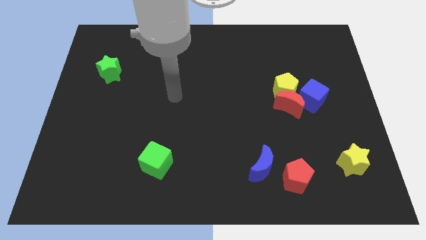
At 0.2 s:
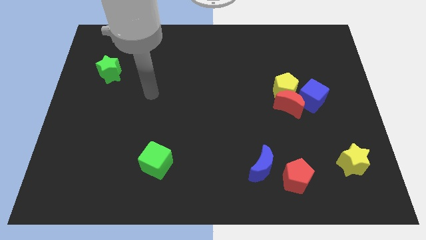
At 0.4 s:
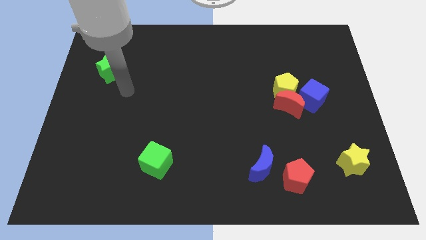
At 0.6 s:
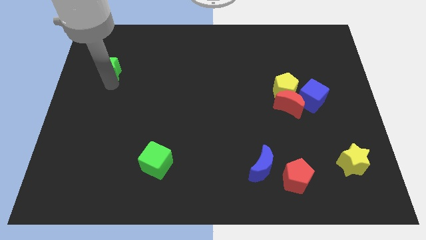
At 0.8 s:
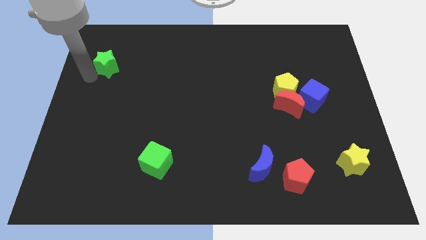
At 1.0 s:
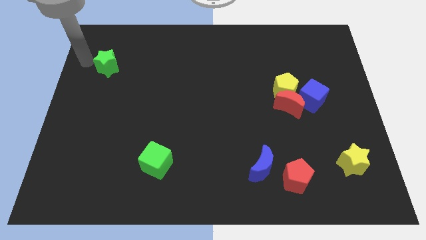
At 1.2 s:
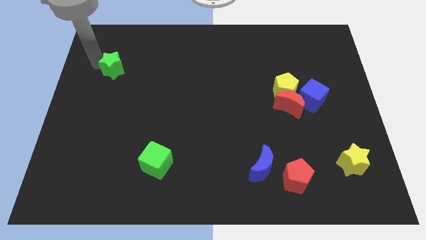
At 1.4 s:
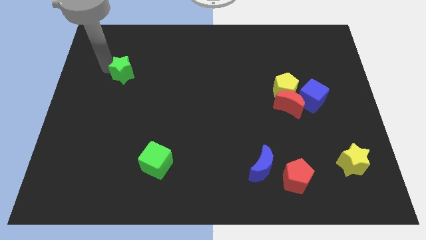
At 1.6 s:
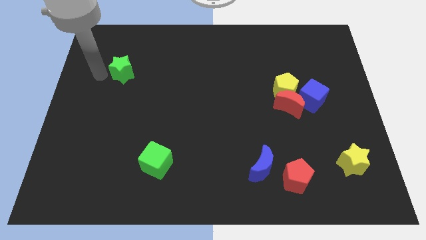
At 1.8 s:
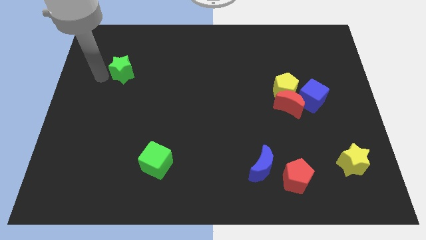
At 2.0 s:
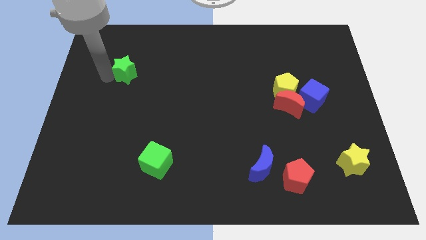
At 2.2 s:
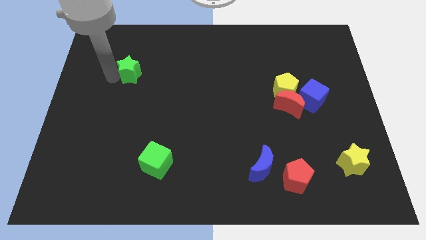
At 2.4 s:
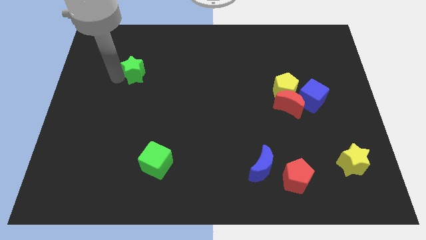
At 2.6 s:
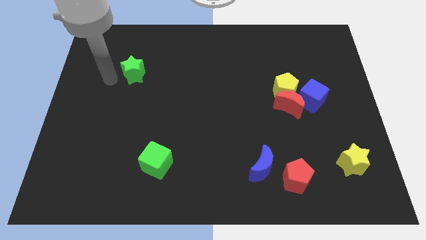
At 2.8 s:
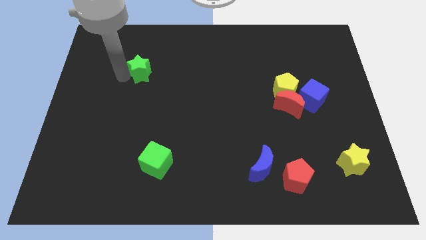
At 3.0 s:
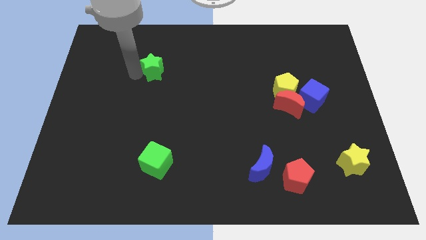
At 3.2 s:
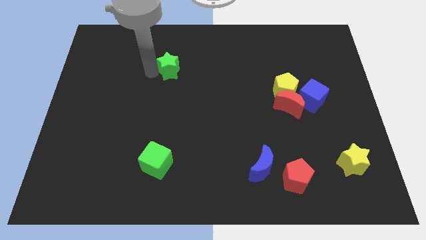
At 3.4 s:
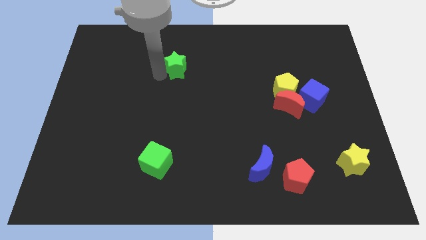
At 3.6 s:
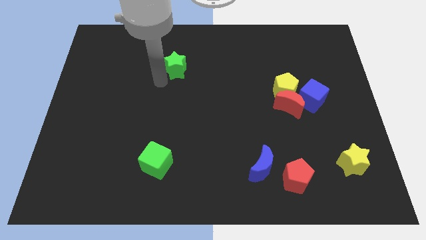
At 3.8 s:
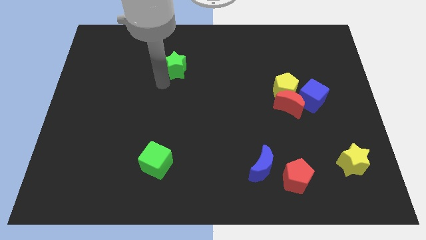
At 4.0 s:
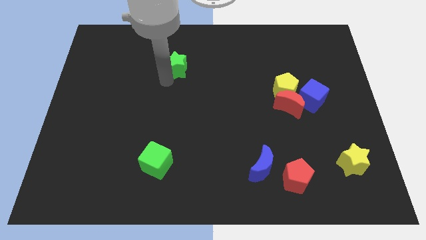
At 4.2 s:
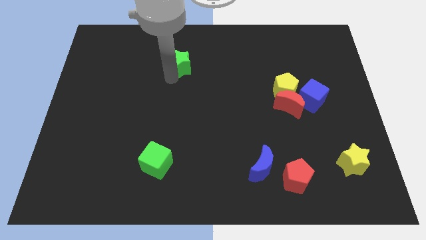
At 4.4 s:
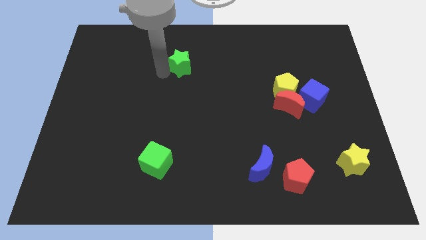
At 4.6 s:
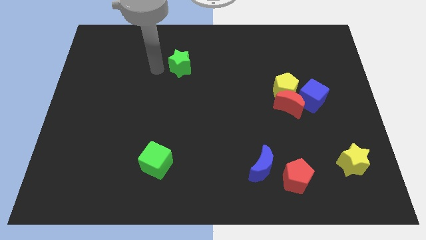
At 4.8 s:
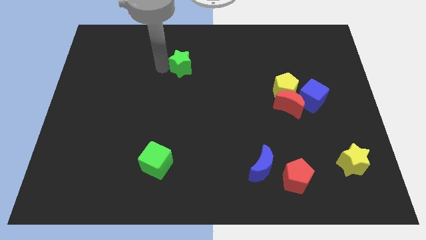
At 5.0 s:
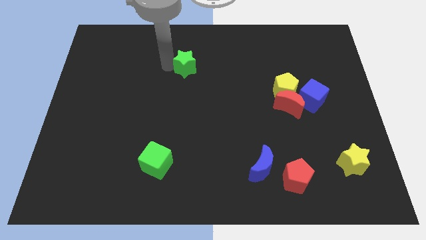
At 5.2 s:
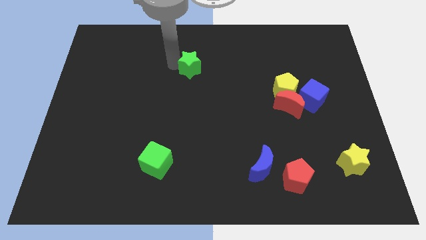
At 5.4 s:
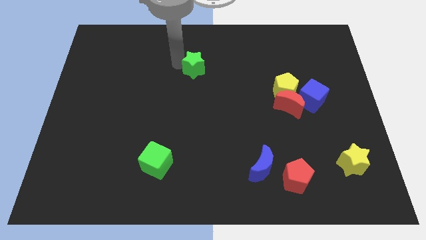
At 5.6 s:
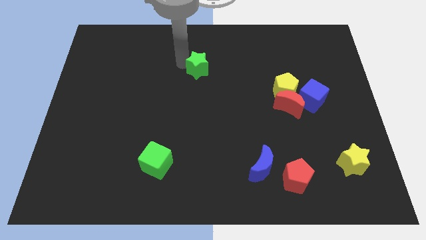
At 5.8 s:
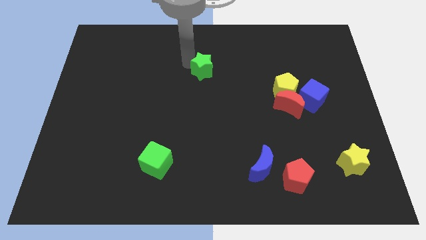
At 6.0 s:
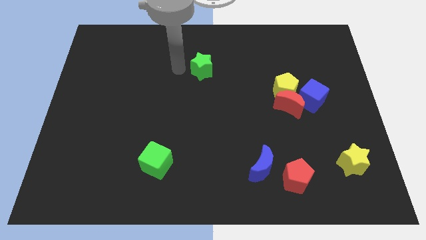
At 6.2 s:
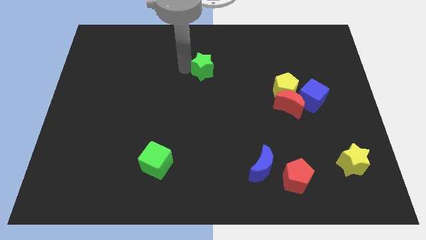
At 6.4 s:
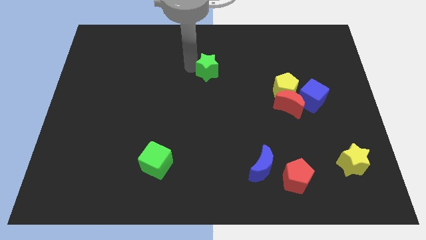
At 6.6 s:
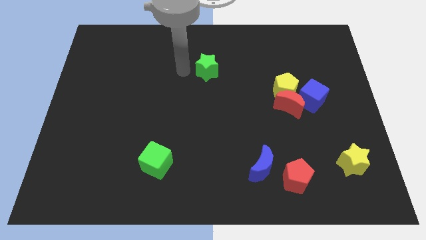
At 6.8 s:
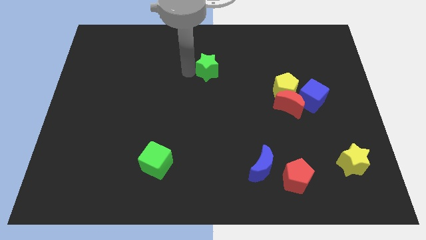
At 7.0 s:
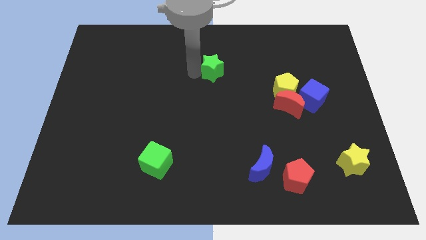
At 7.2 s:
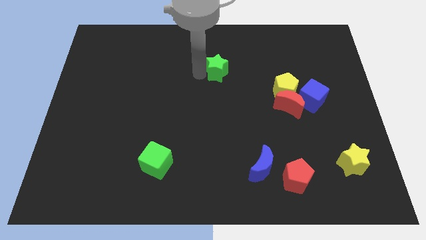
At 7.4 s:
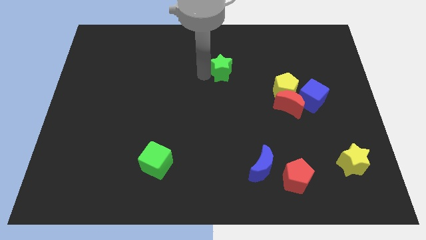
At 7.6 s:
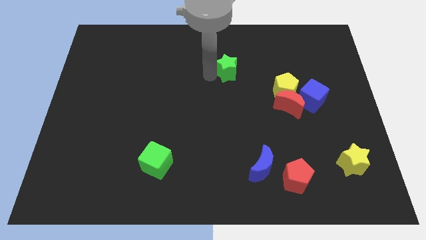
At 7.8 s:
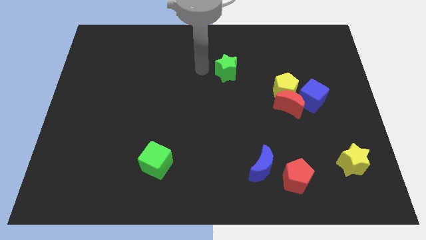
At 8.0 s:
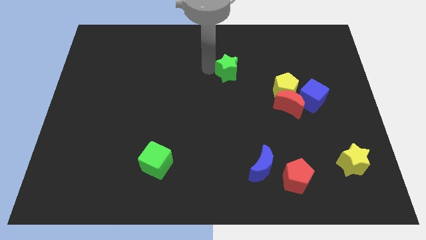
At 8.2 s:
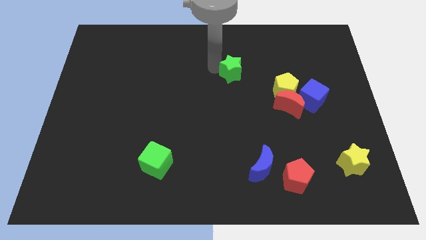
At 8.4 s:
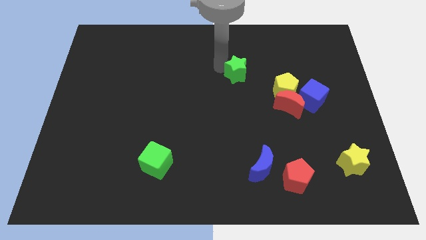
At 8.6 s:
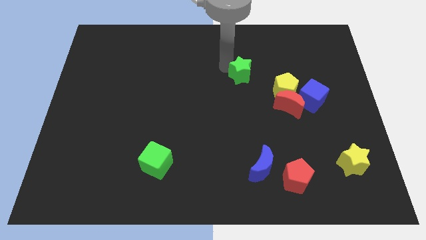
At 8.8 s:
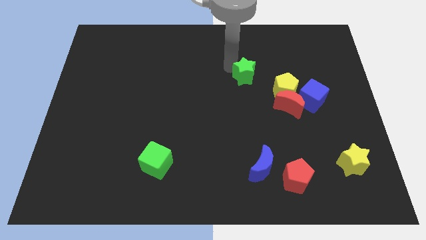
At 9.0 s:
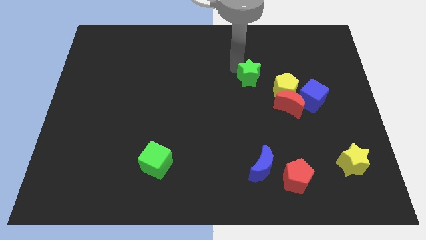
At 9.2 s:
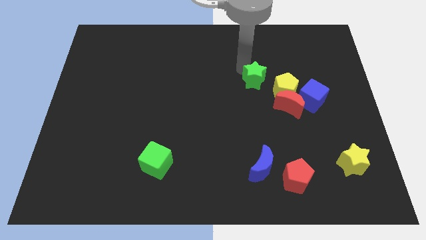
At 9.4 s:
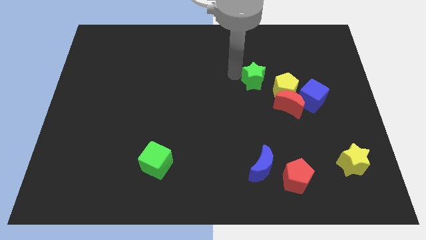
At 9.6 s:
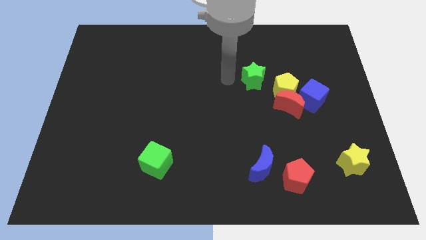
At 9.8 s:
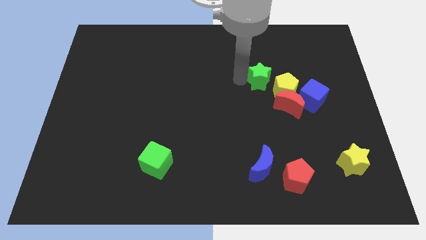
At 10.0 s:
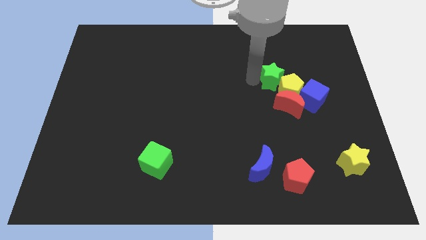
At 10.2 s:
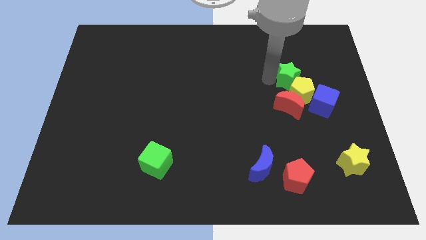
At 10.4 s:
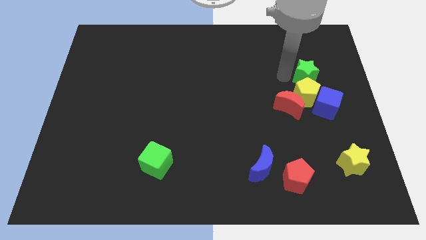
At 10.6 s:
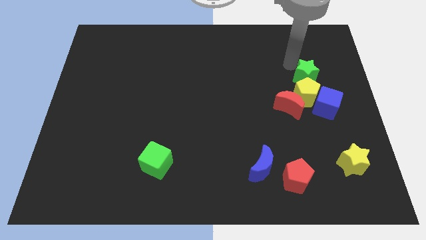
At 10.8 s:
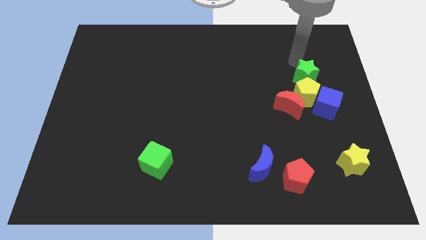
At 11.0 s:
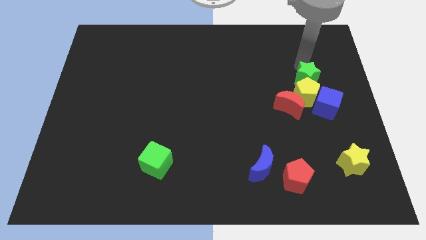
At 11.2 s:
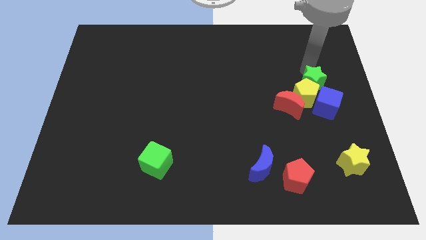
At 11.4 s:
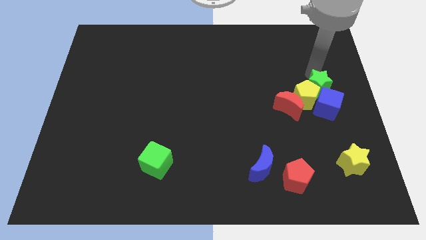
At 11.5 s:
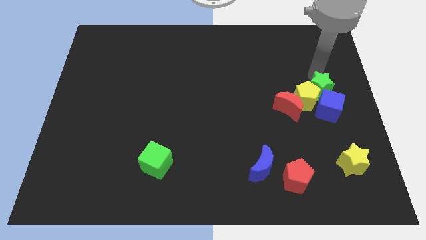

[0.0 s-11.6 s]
put the green star to the blue cube
